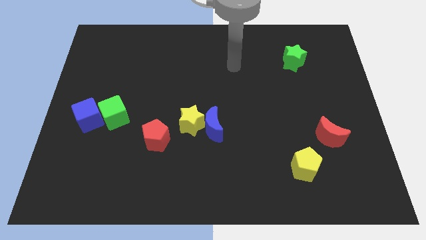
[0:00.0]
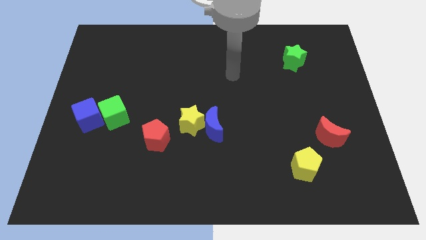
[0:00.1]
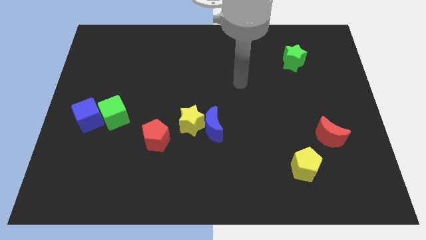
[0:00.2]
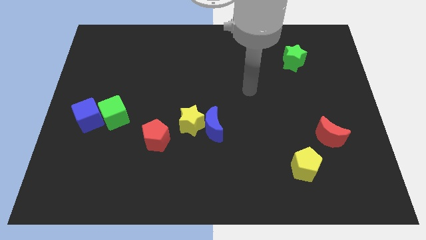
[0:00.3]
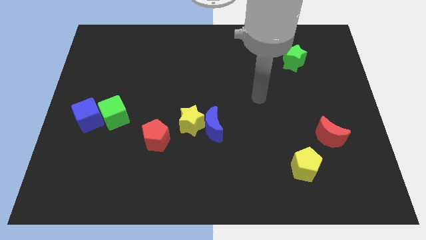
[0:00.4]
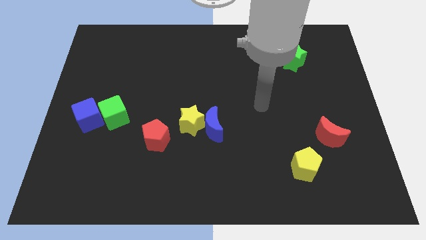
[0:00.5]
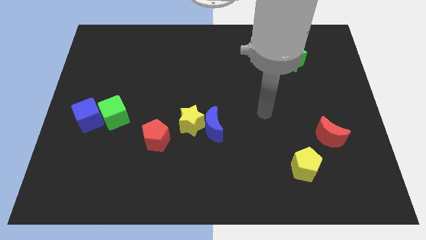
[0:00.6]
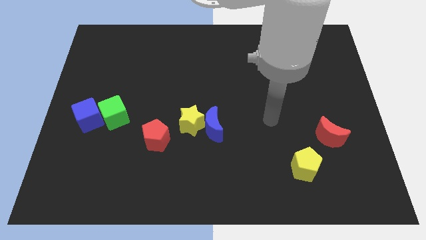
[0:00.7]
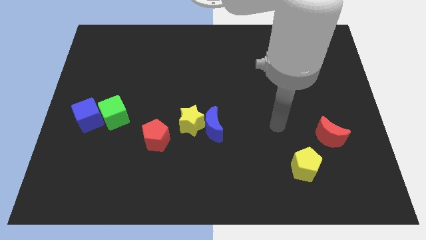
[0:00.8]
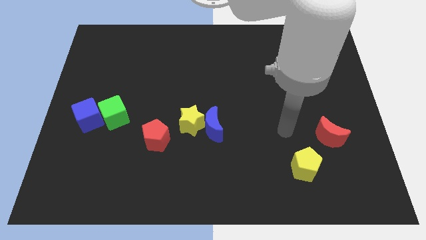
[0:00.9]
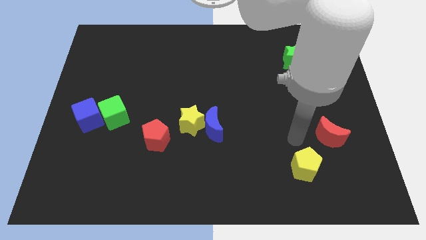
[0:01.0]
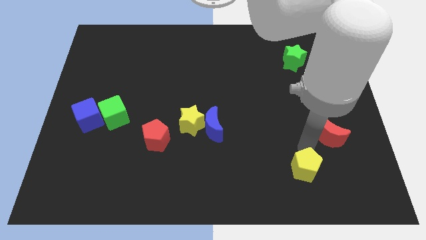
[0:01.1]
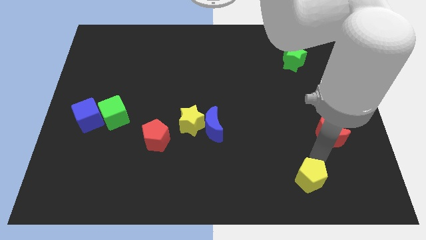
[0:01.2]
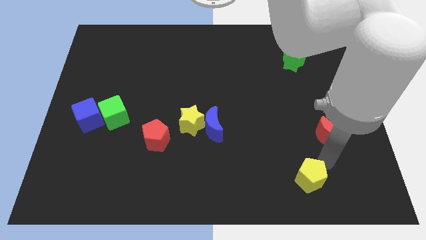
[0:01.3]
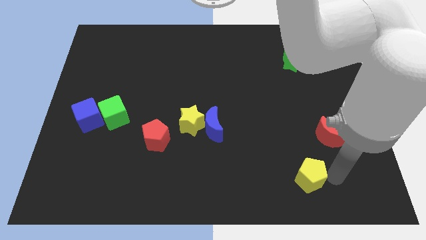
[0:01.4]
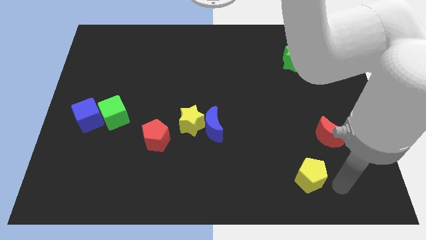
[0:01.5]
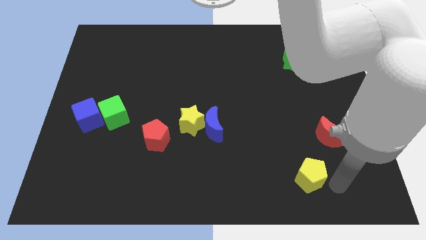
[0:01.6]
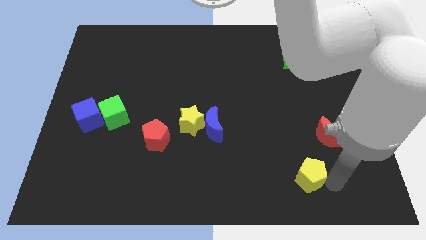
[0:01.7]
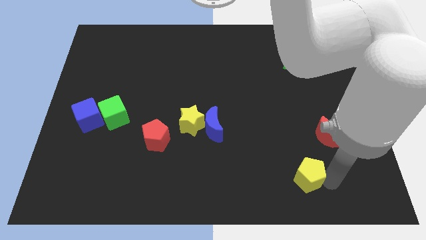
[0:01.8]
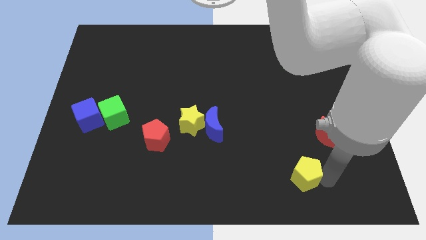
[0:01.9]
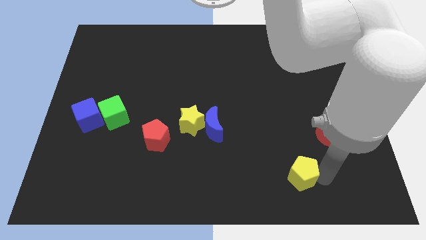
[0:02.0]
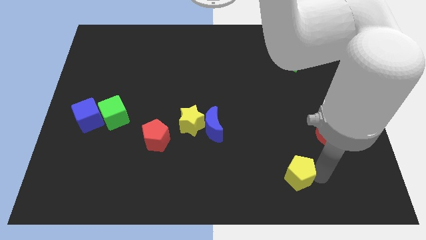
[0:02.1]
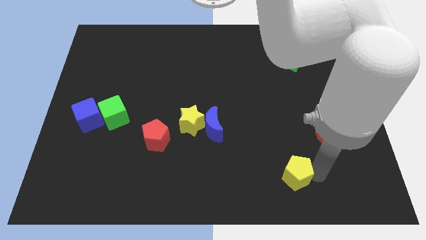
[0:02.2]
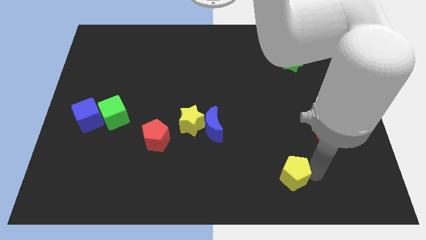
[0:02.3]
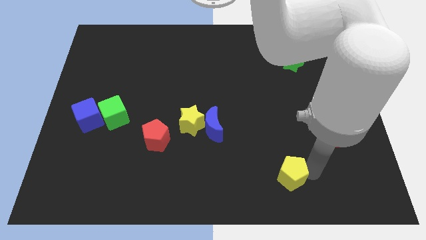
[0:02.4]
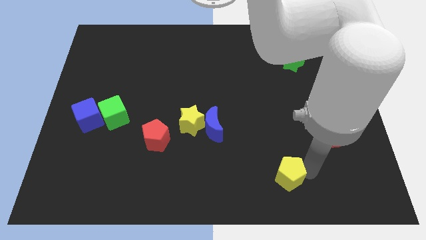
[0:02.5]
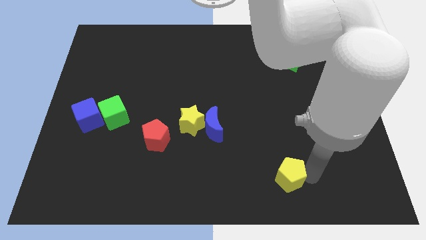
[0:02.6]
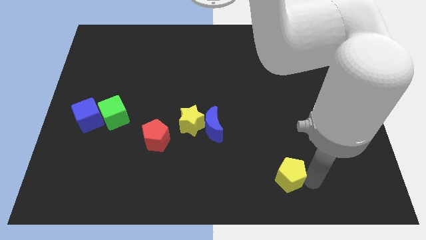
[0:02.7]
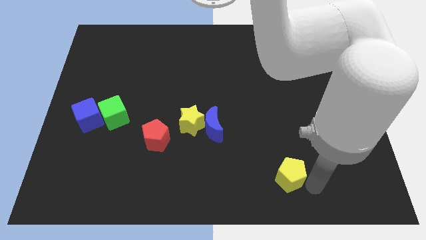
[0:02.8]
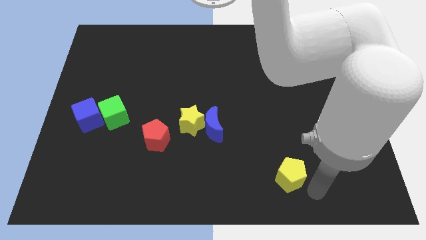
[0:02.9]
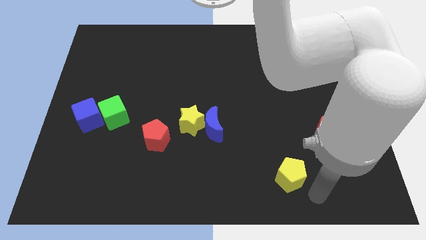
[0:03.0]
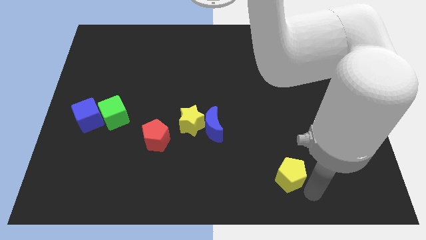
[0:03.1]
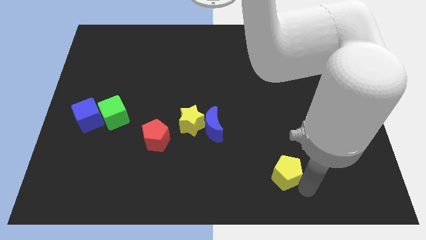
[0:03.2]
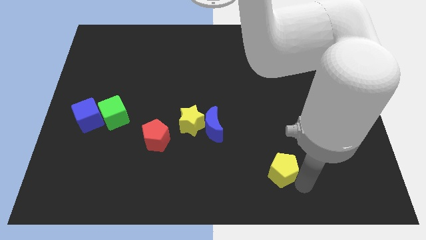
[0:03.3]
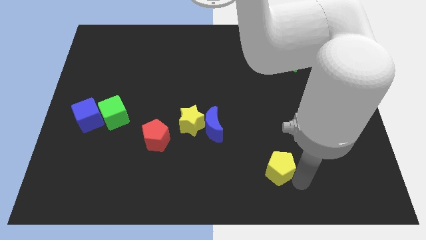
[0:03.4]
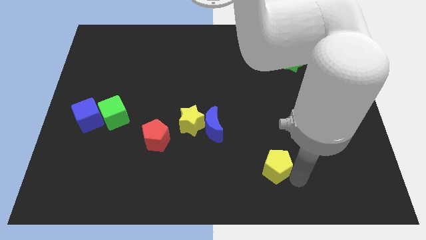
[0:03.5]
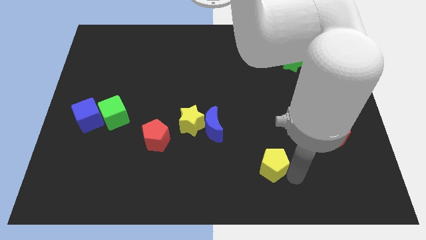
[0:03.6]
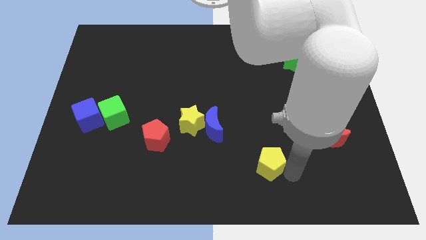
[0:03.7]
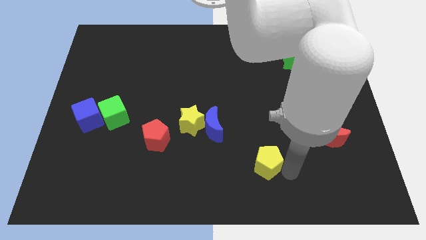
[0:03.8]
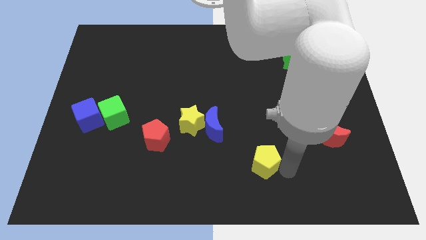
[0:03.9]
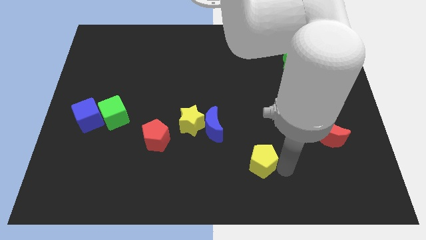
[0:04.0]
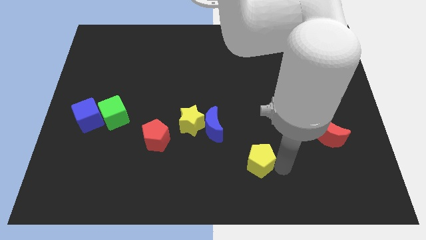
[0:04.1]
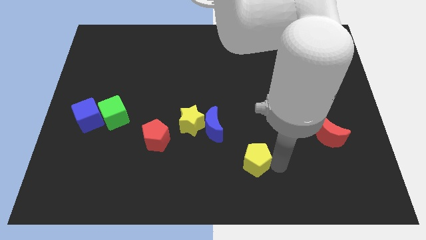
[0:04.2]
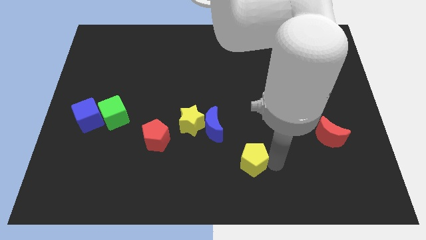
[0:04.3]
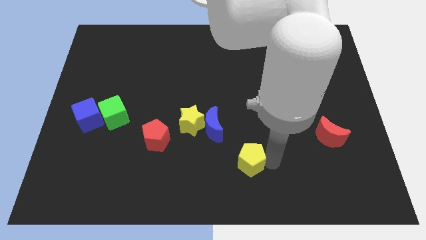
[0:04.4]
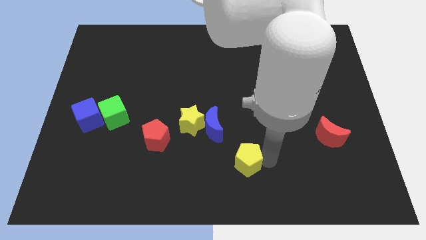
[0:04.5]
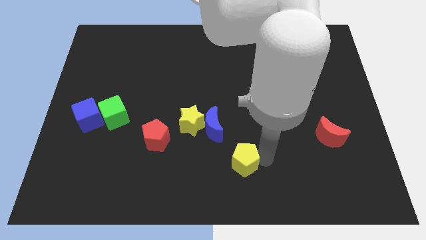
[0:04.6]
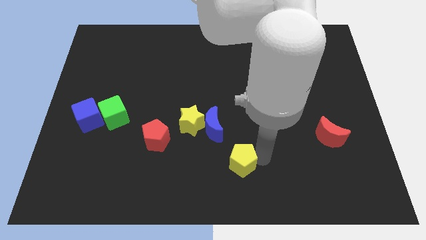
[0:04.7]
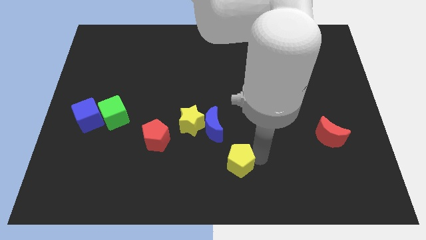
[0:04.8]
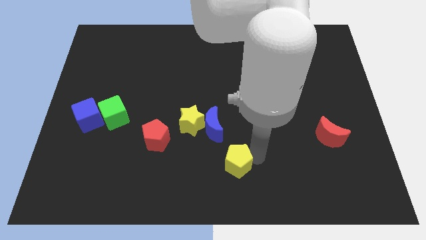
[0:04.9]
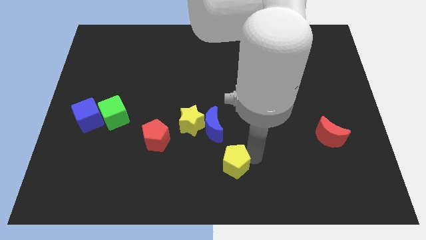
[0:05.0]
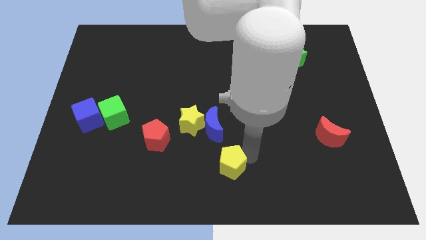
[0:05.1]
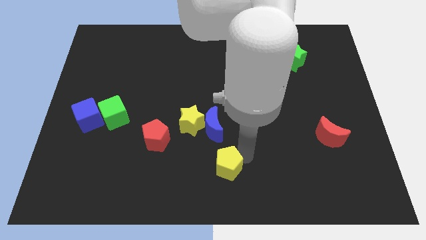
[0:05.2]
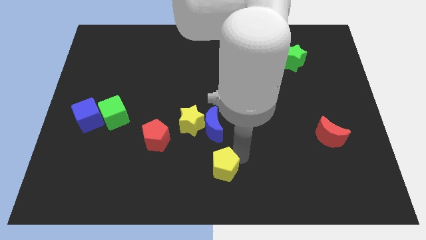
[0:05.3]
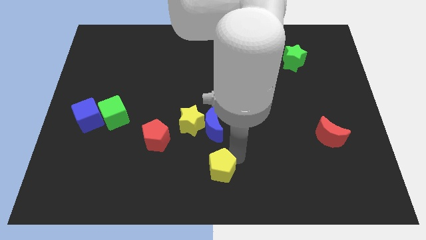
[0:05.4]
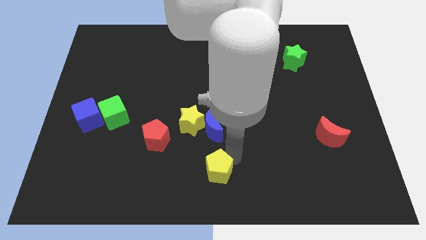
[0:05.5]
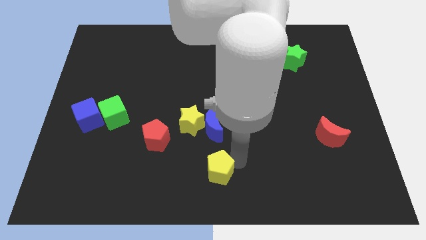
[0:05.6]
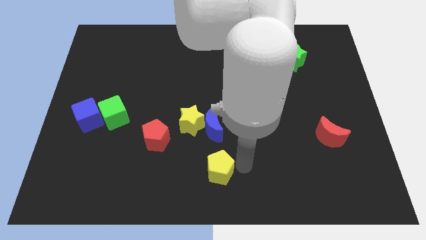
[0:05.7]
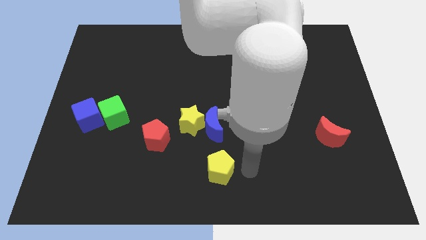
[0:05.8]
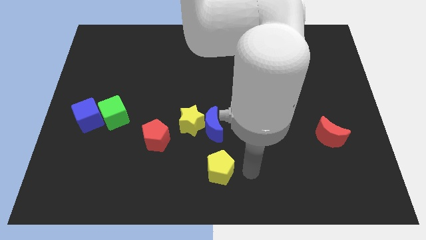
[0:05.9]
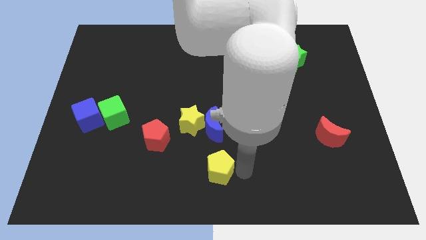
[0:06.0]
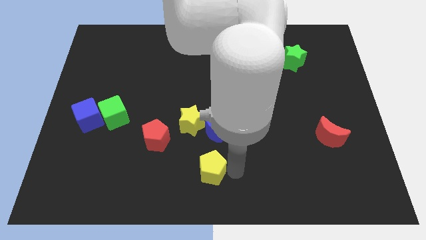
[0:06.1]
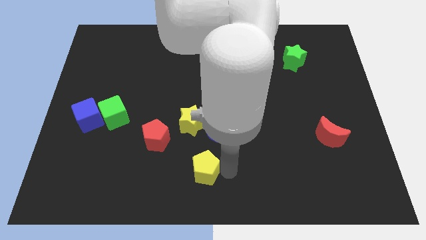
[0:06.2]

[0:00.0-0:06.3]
push the yellow pentagon to the left

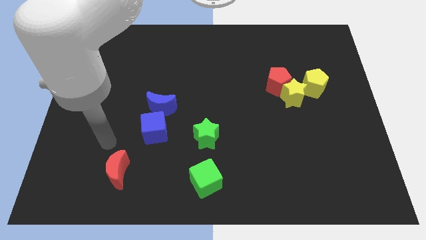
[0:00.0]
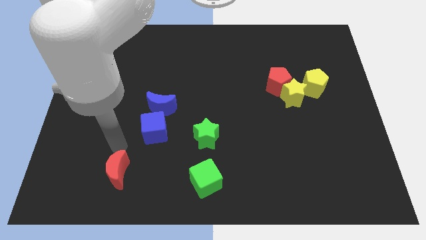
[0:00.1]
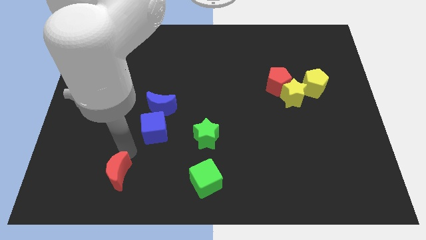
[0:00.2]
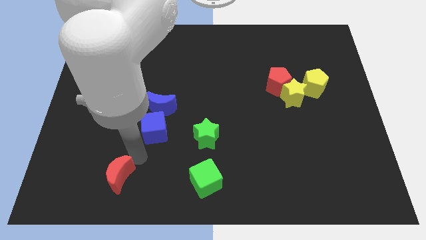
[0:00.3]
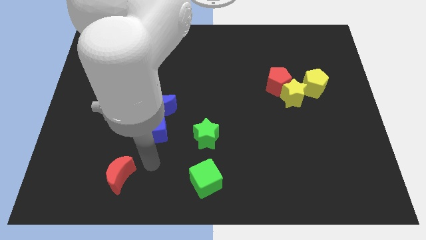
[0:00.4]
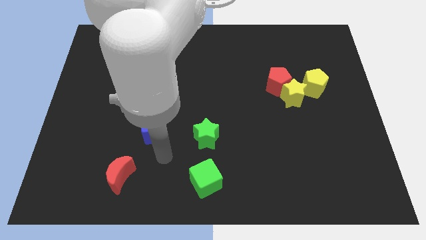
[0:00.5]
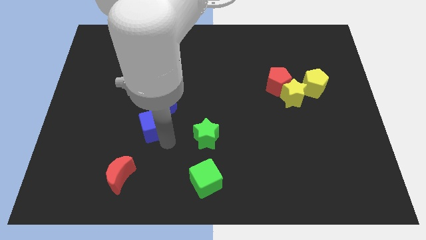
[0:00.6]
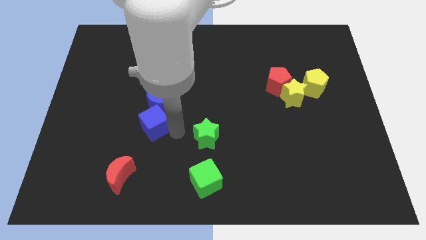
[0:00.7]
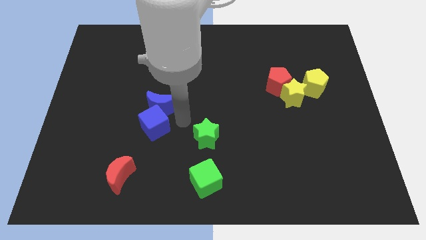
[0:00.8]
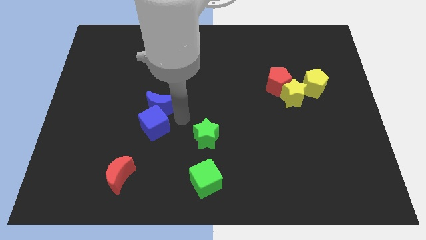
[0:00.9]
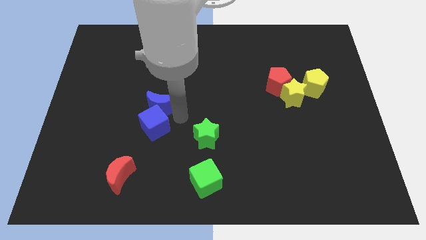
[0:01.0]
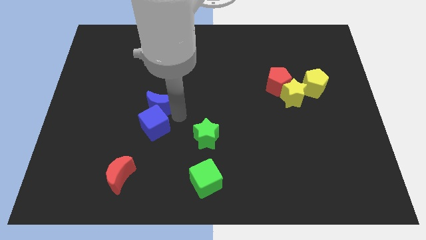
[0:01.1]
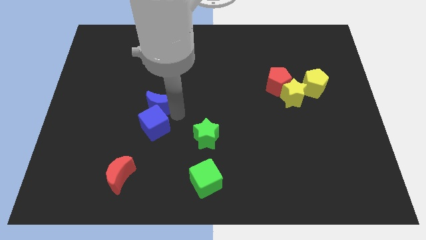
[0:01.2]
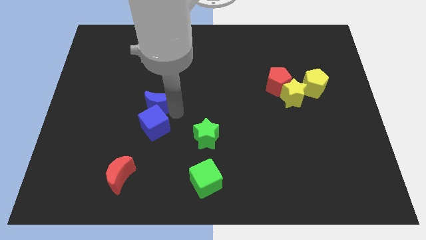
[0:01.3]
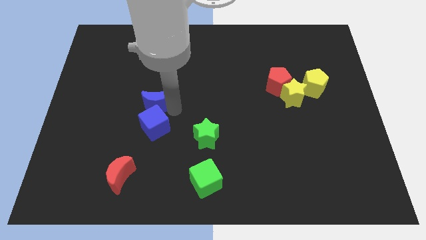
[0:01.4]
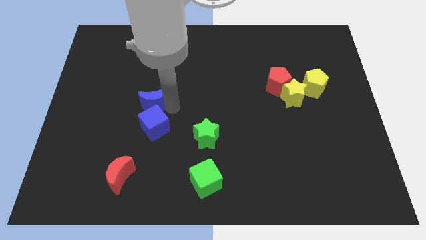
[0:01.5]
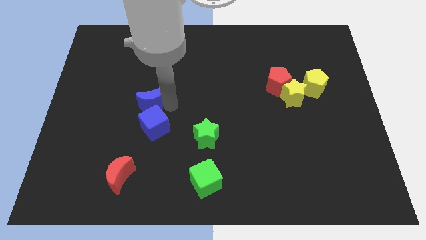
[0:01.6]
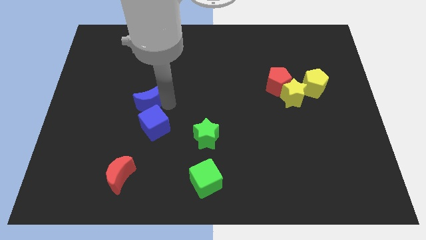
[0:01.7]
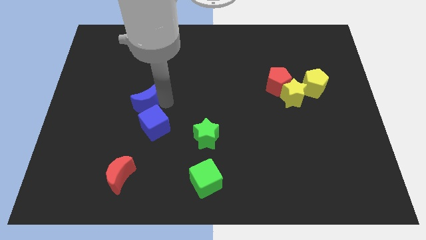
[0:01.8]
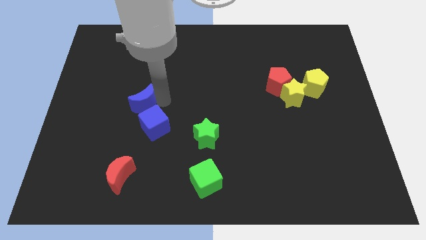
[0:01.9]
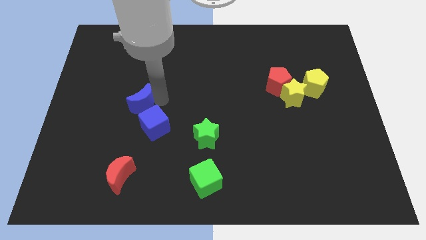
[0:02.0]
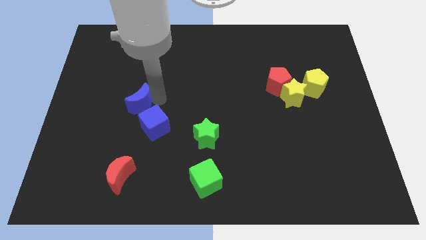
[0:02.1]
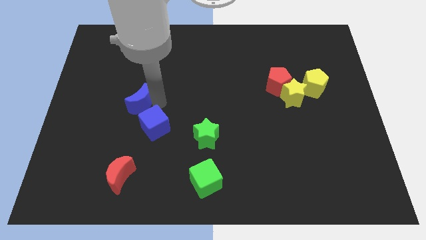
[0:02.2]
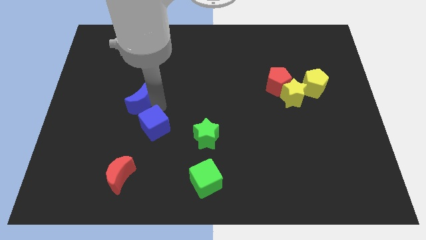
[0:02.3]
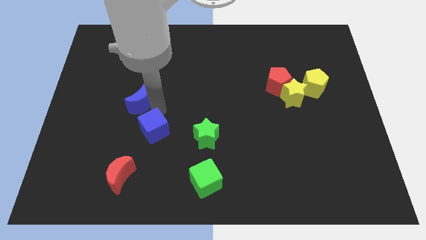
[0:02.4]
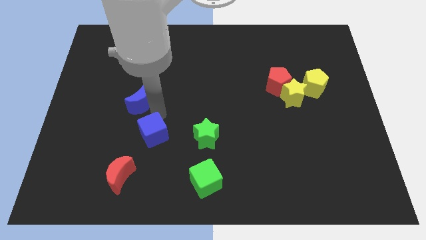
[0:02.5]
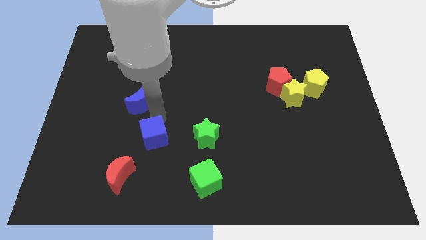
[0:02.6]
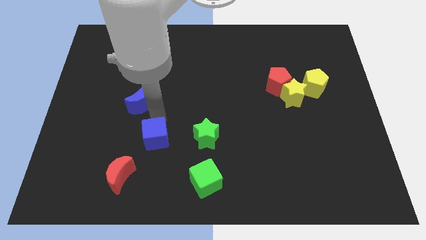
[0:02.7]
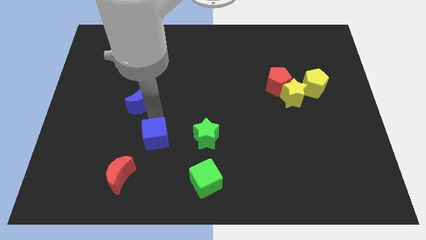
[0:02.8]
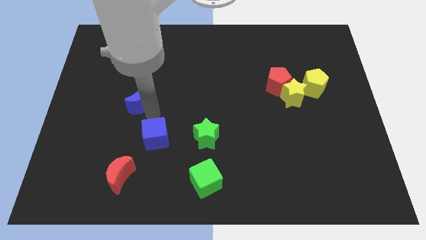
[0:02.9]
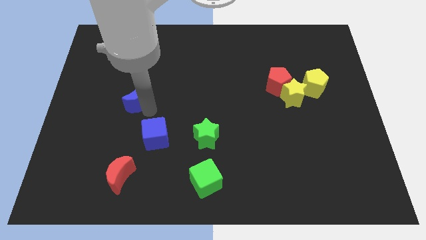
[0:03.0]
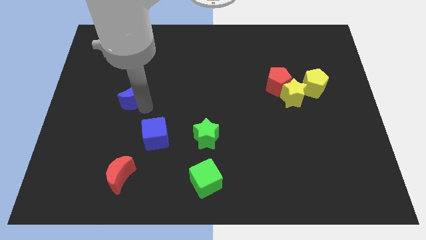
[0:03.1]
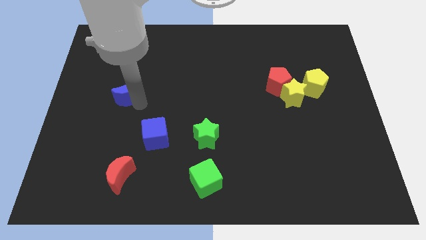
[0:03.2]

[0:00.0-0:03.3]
slightly move the blue moon upwards and left
